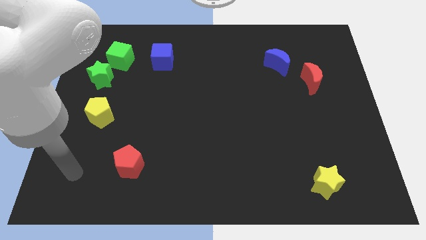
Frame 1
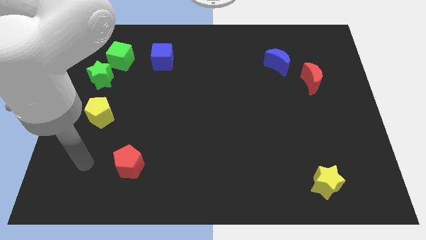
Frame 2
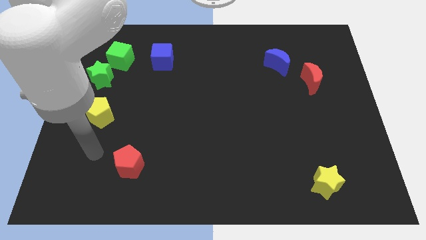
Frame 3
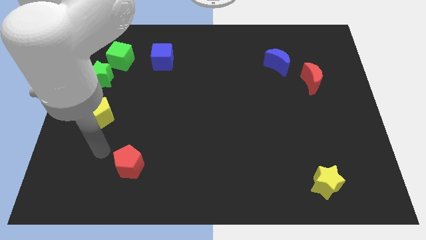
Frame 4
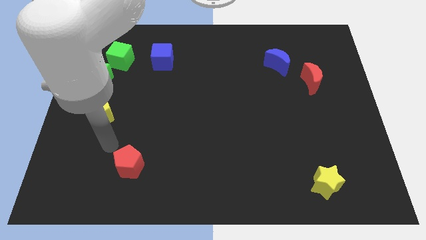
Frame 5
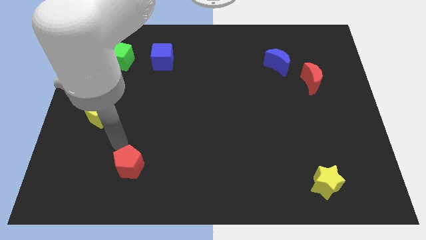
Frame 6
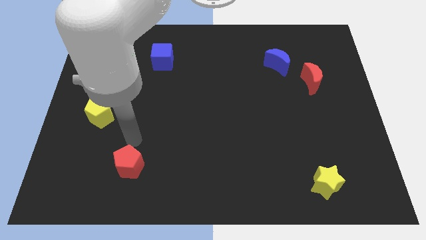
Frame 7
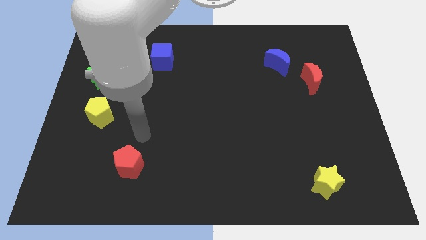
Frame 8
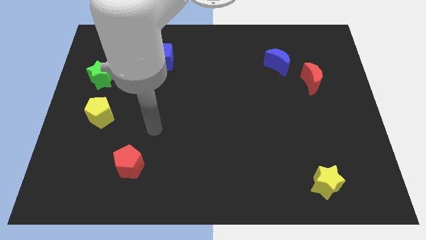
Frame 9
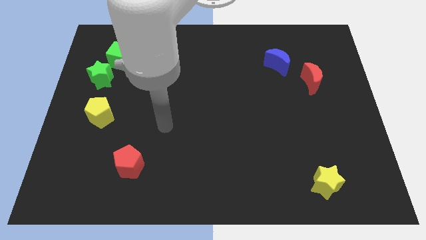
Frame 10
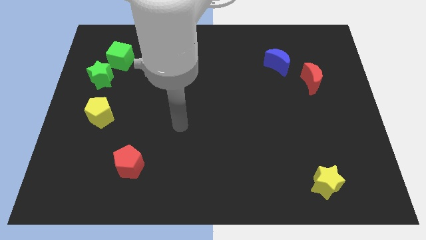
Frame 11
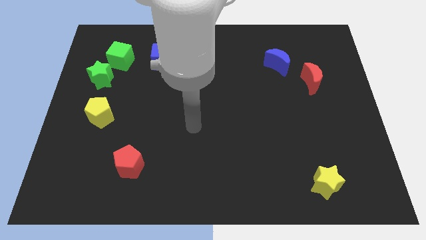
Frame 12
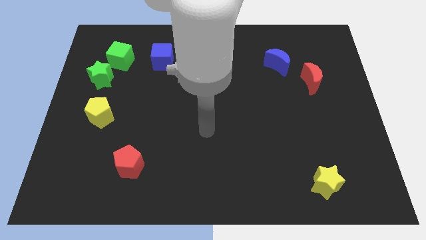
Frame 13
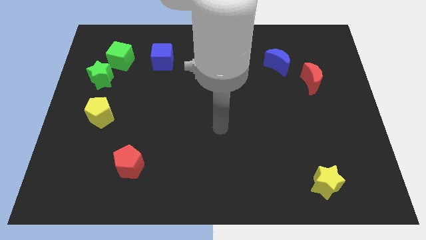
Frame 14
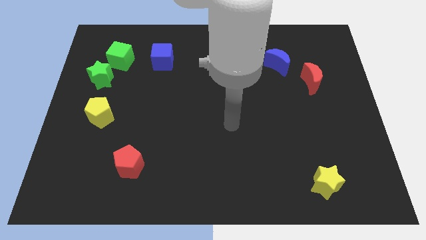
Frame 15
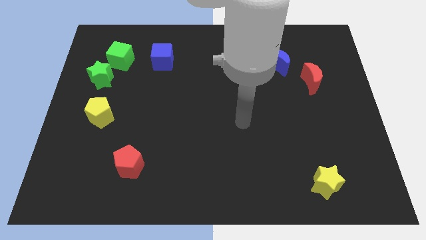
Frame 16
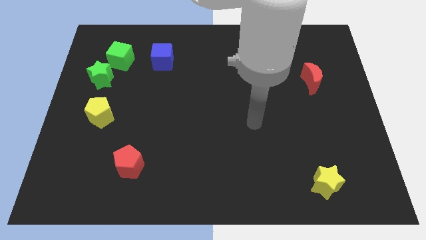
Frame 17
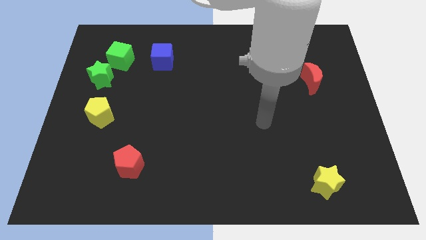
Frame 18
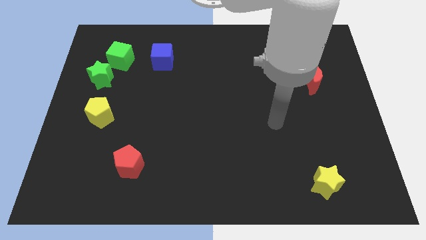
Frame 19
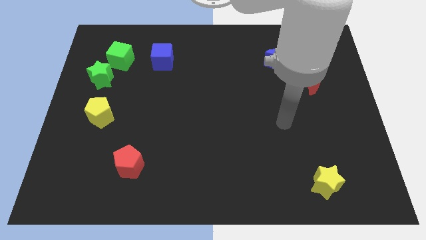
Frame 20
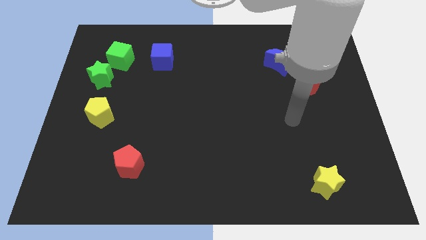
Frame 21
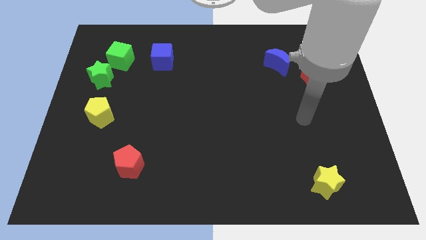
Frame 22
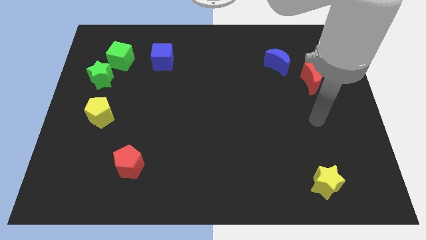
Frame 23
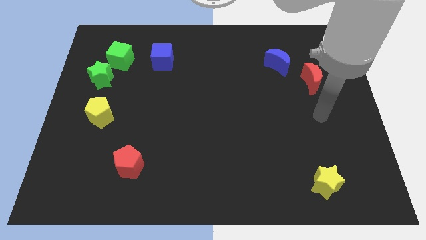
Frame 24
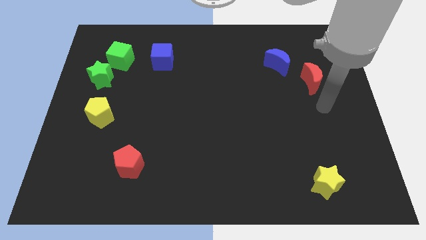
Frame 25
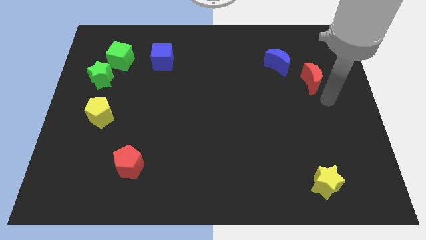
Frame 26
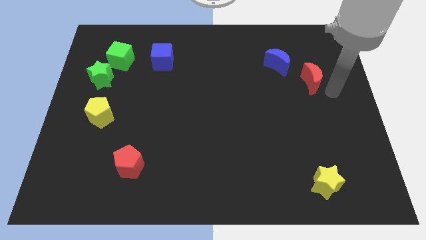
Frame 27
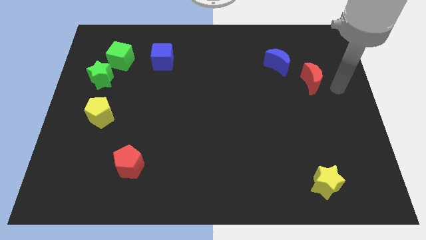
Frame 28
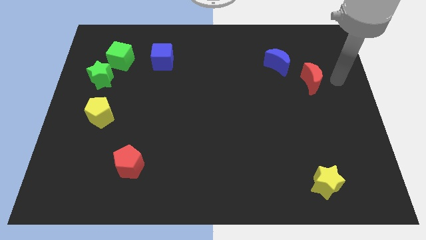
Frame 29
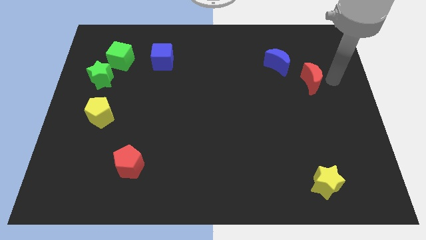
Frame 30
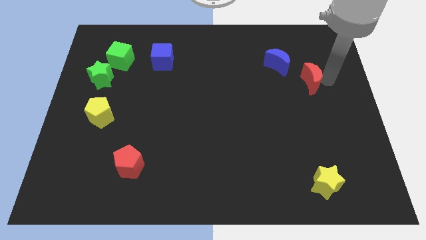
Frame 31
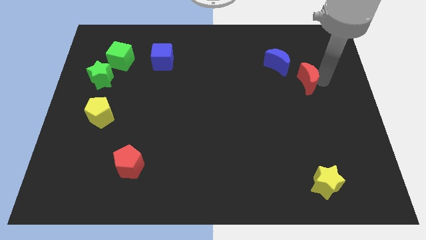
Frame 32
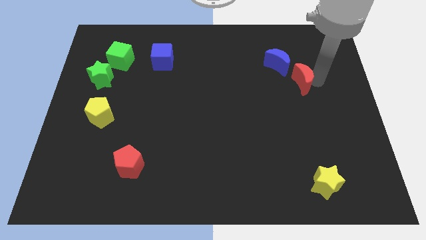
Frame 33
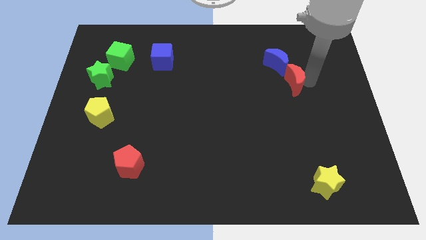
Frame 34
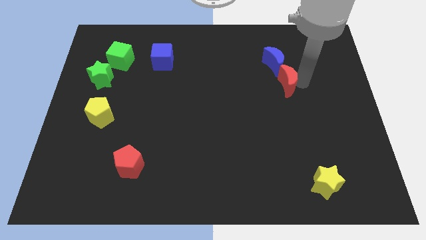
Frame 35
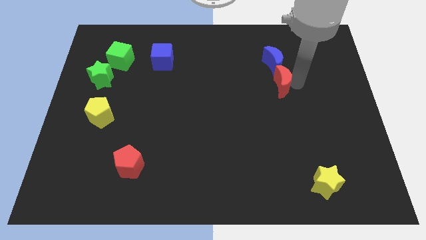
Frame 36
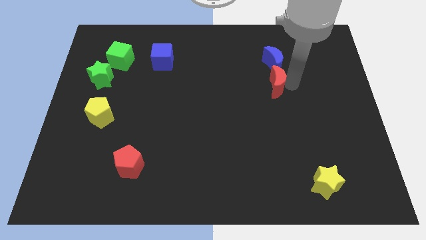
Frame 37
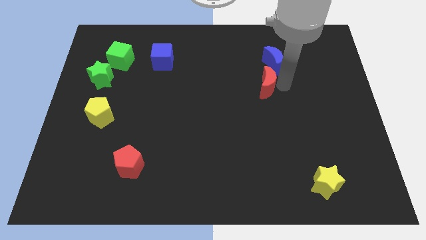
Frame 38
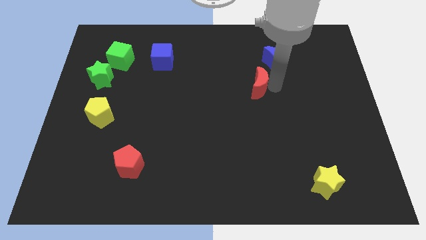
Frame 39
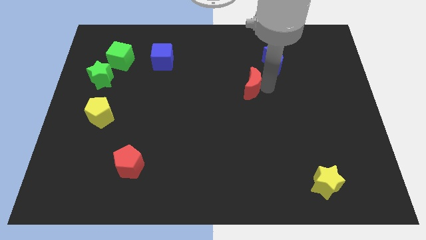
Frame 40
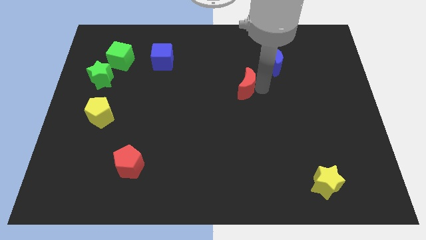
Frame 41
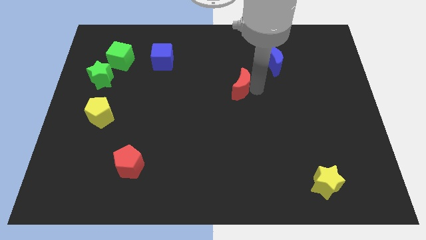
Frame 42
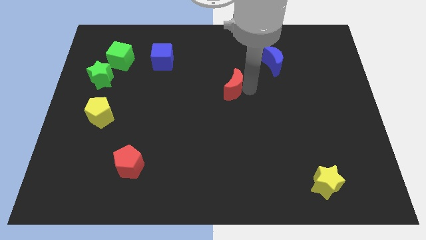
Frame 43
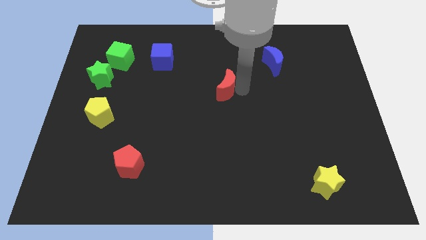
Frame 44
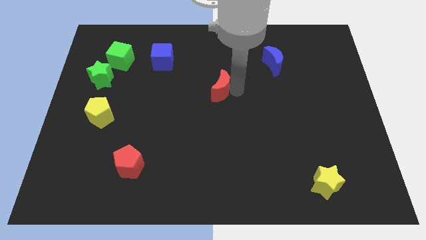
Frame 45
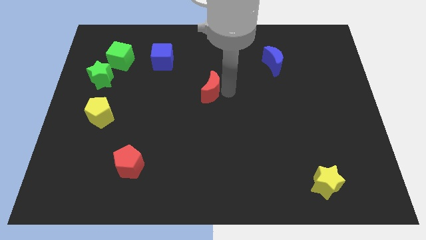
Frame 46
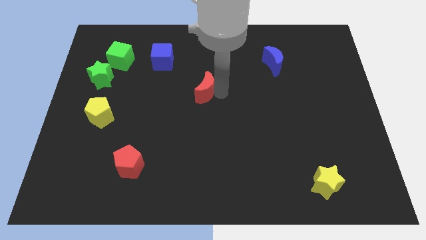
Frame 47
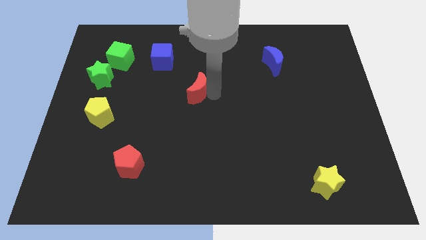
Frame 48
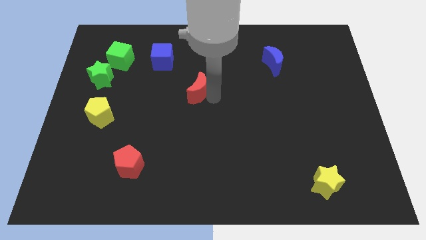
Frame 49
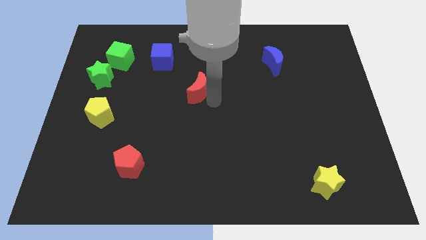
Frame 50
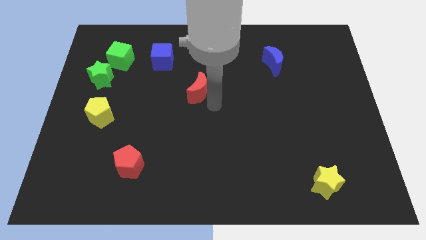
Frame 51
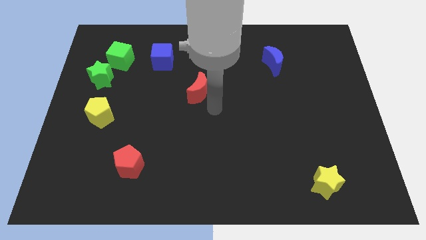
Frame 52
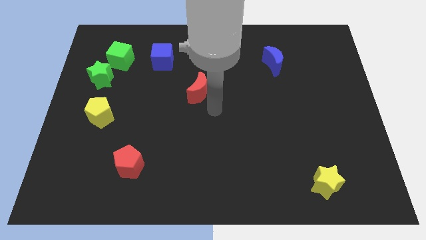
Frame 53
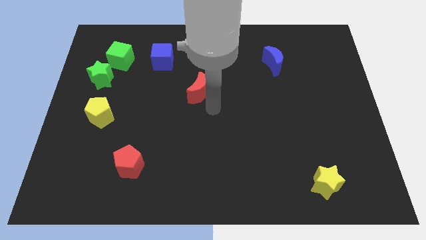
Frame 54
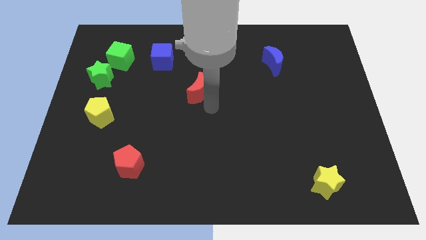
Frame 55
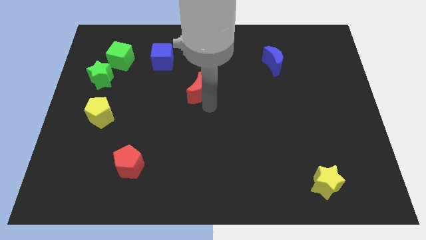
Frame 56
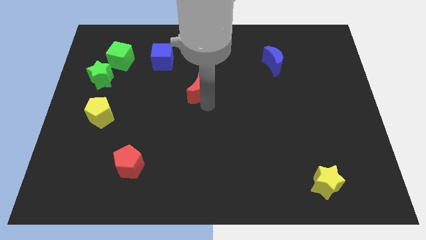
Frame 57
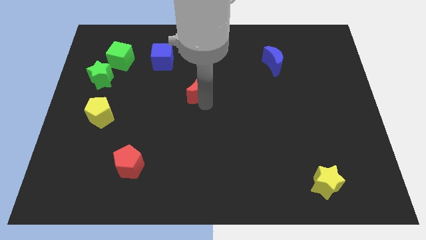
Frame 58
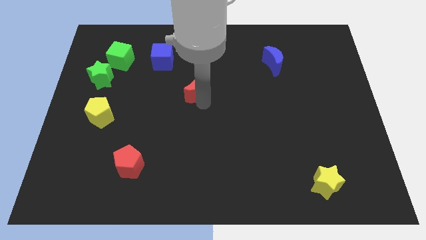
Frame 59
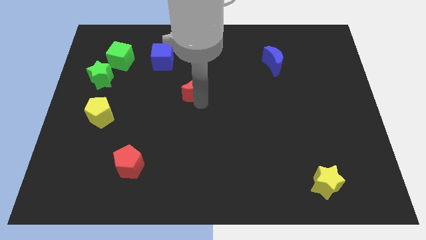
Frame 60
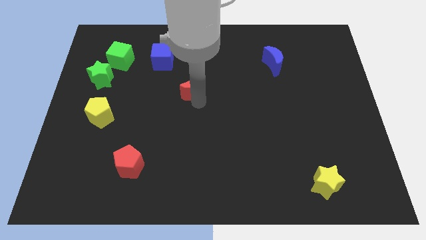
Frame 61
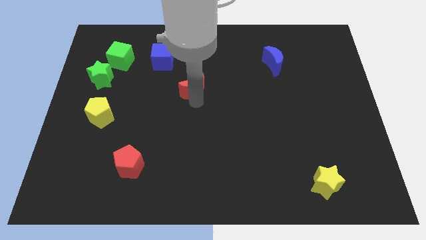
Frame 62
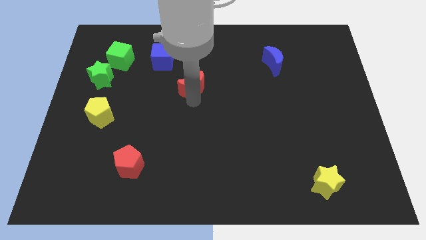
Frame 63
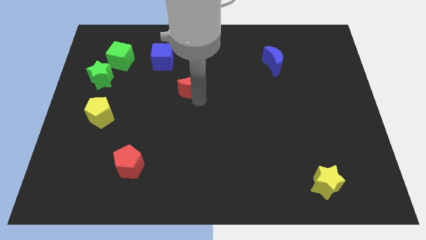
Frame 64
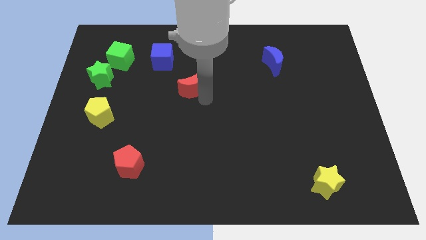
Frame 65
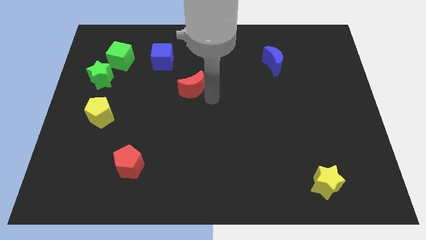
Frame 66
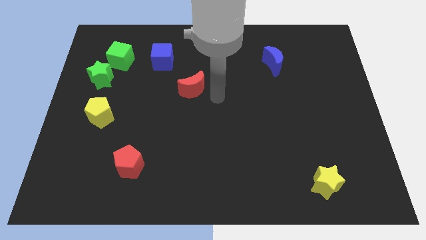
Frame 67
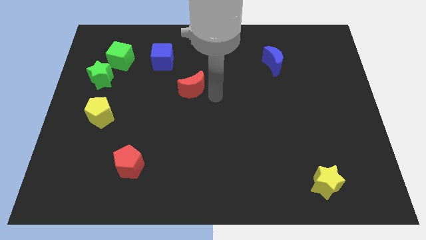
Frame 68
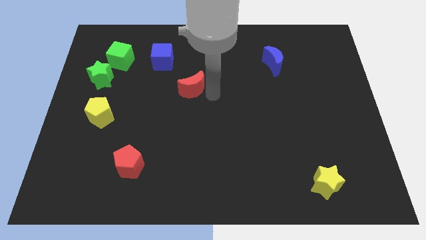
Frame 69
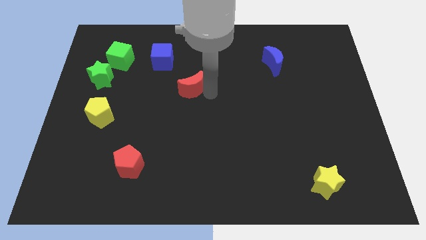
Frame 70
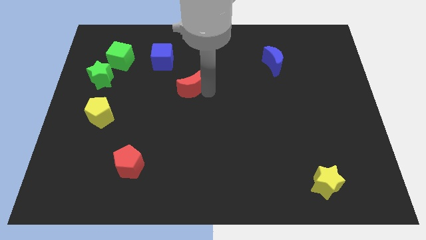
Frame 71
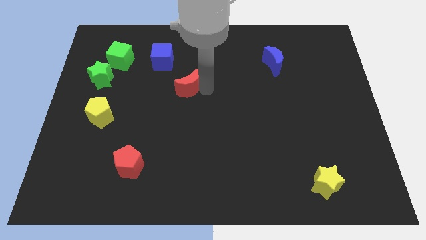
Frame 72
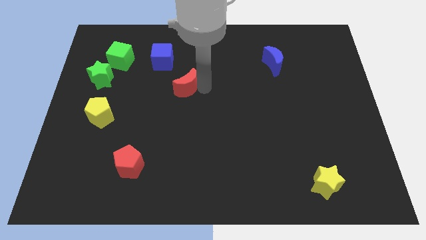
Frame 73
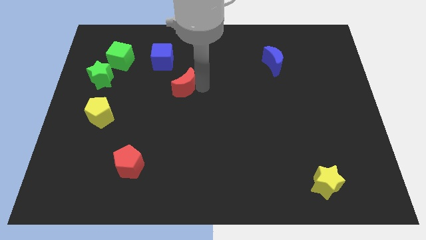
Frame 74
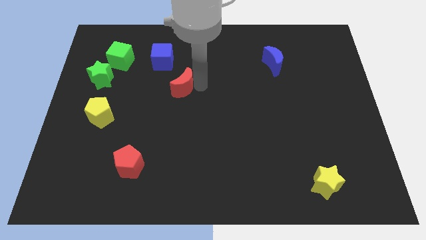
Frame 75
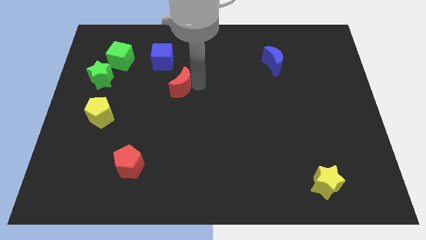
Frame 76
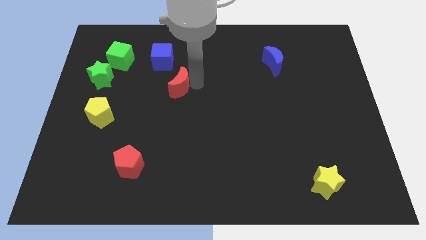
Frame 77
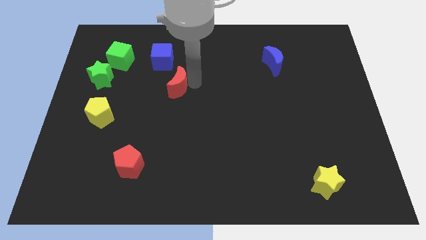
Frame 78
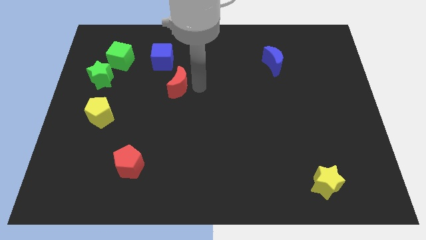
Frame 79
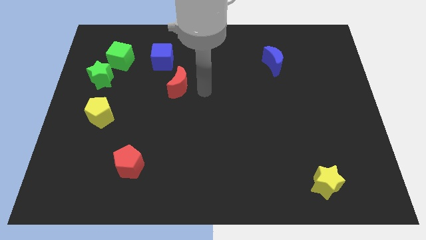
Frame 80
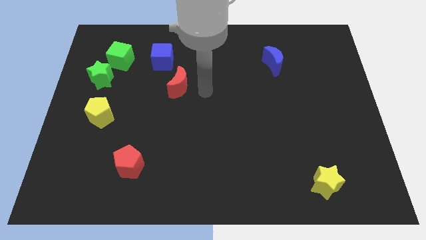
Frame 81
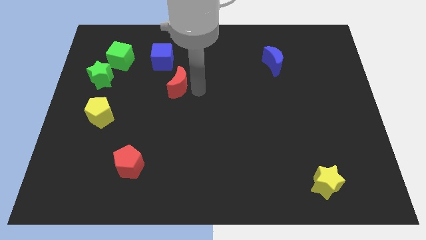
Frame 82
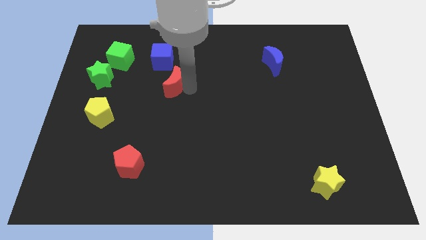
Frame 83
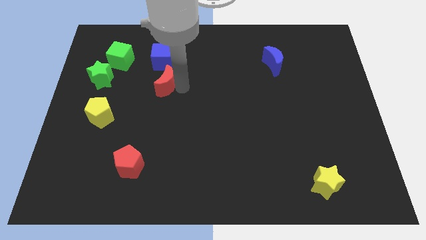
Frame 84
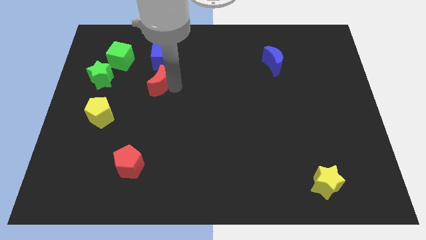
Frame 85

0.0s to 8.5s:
push the red moon to the right side of the green star
